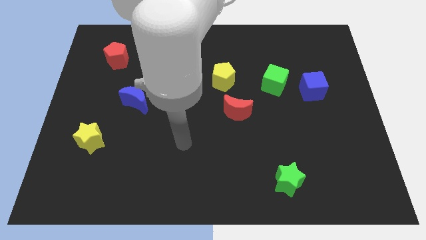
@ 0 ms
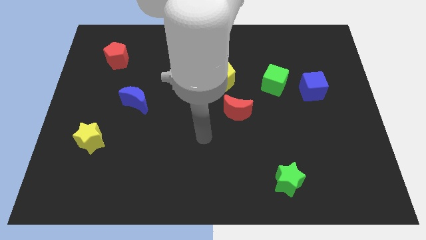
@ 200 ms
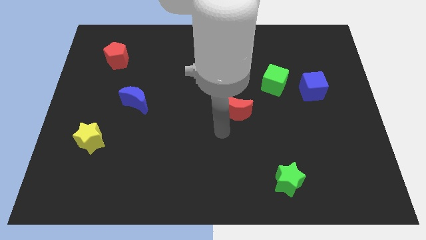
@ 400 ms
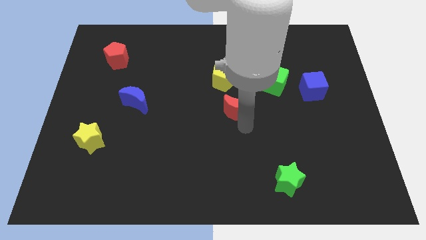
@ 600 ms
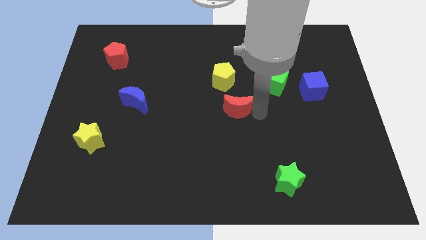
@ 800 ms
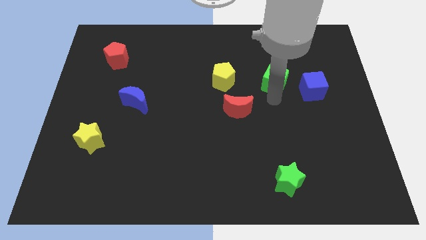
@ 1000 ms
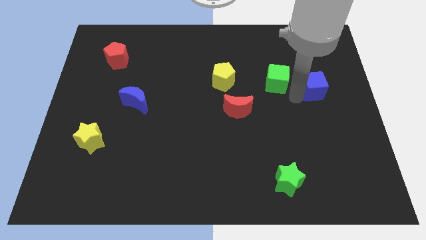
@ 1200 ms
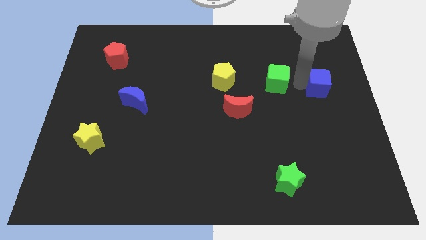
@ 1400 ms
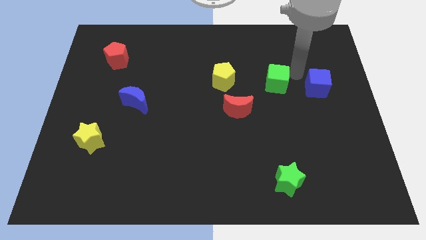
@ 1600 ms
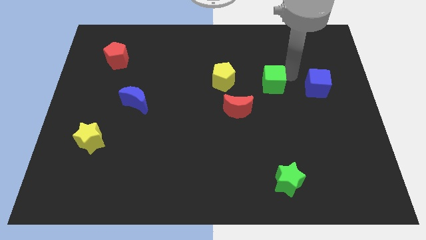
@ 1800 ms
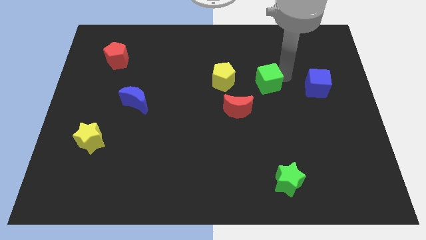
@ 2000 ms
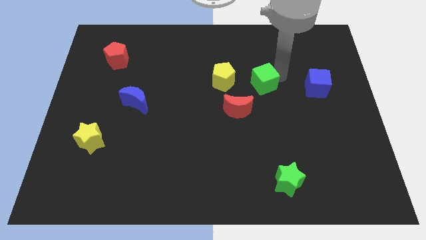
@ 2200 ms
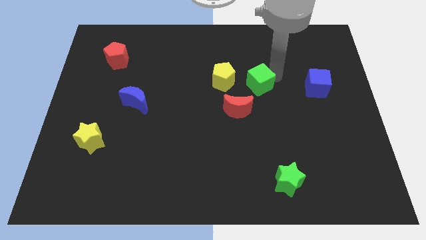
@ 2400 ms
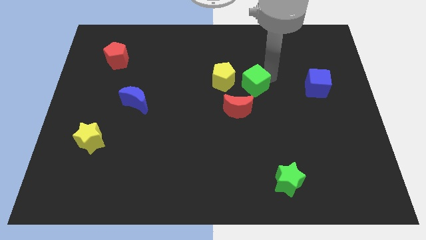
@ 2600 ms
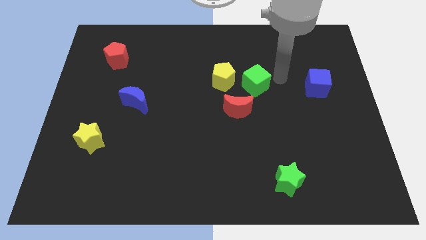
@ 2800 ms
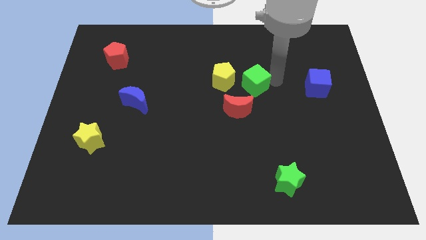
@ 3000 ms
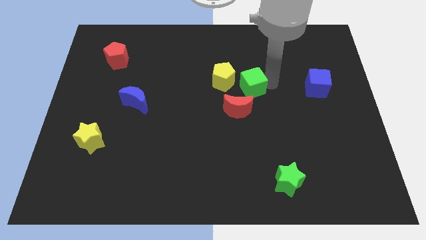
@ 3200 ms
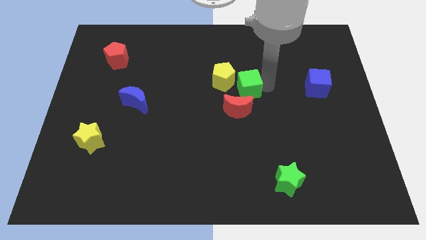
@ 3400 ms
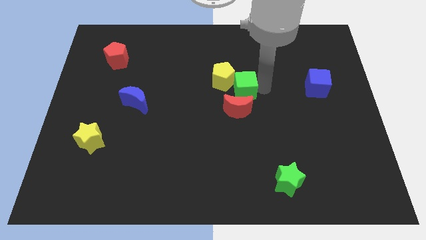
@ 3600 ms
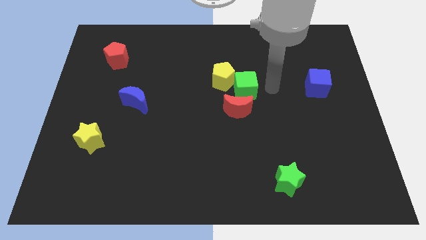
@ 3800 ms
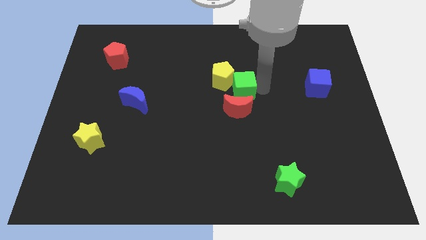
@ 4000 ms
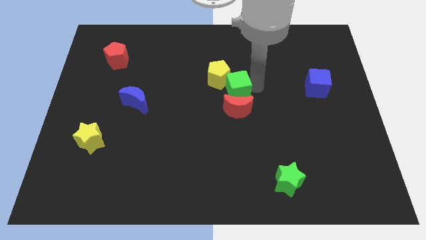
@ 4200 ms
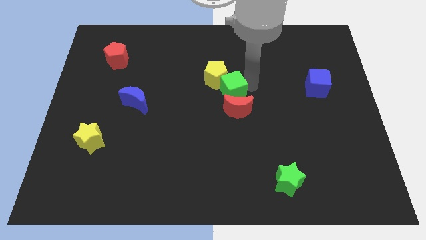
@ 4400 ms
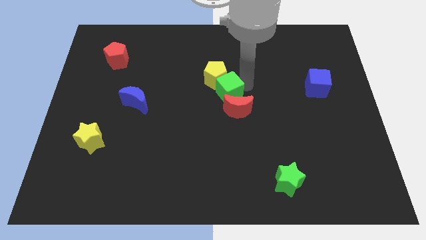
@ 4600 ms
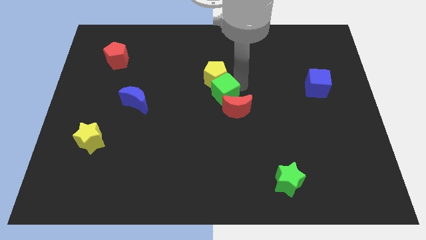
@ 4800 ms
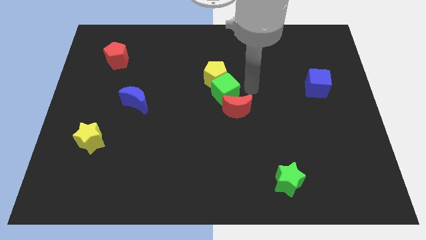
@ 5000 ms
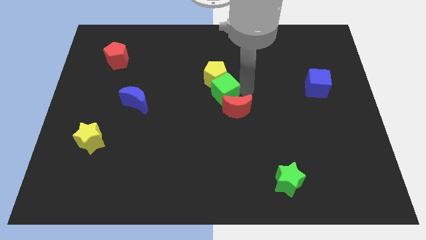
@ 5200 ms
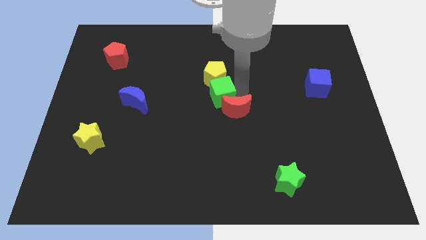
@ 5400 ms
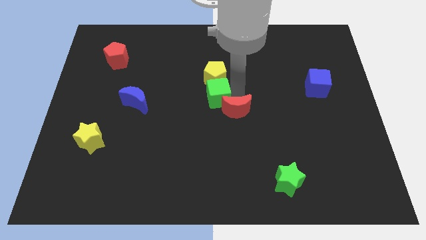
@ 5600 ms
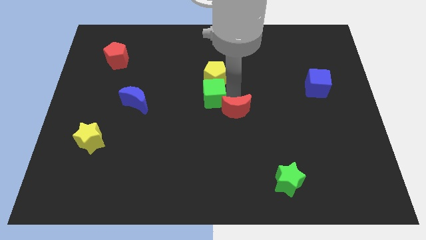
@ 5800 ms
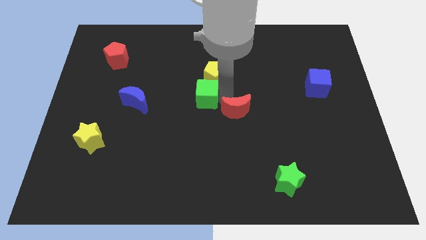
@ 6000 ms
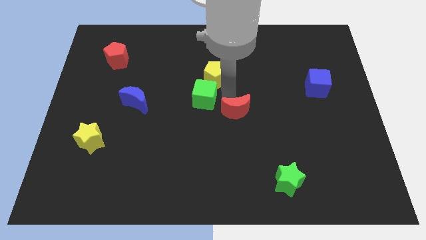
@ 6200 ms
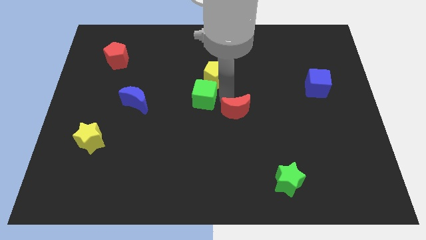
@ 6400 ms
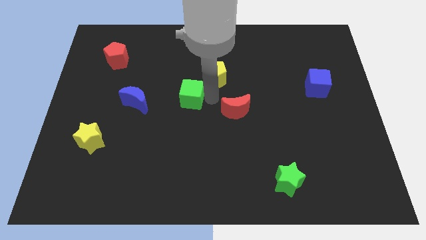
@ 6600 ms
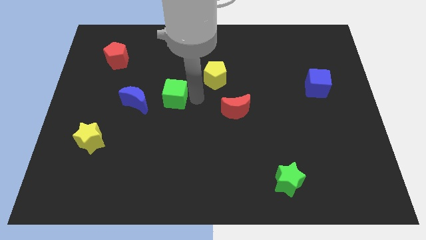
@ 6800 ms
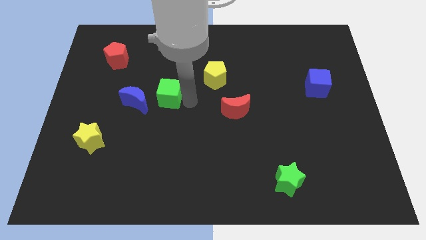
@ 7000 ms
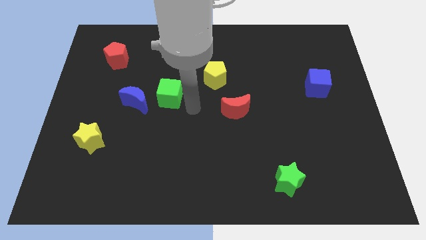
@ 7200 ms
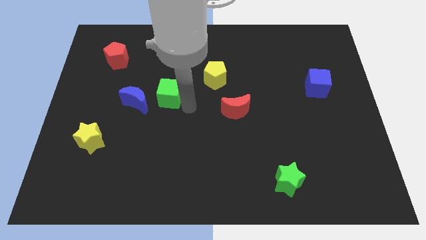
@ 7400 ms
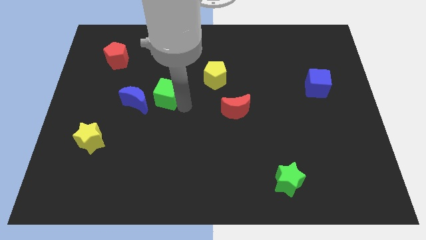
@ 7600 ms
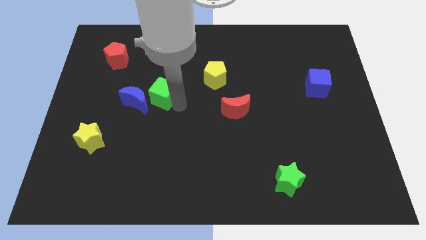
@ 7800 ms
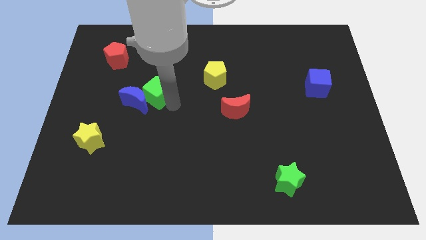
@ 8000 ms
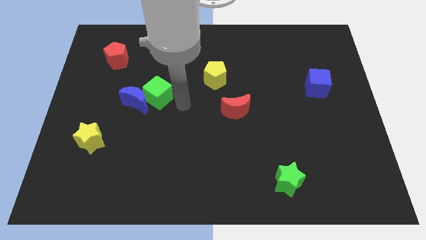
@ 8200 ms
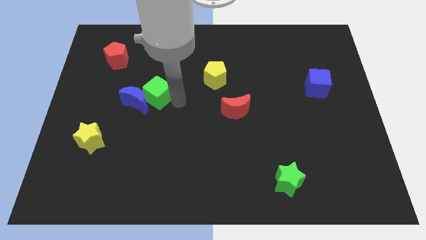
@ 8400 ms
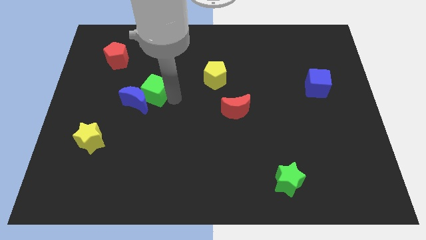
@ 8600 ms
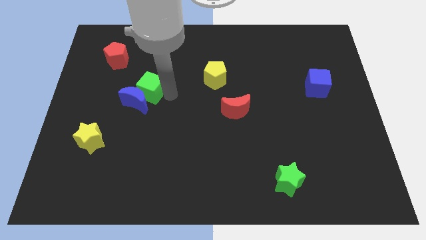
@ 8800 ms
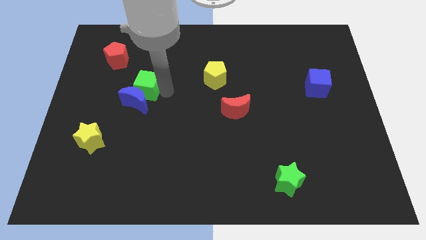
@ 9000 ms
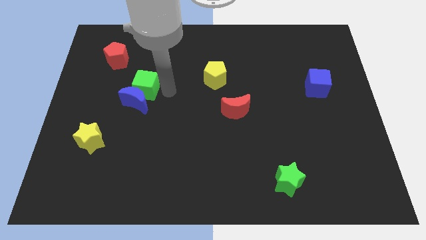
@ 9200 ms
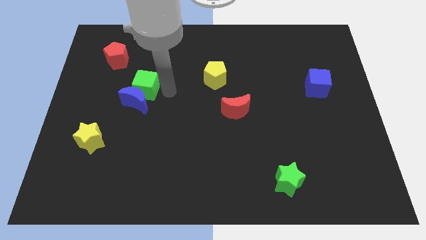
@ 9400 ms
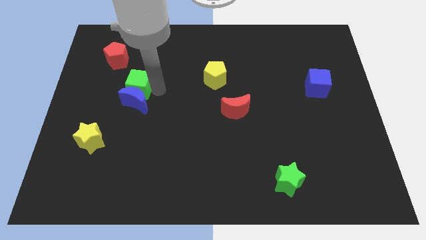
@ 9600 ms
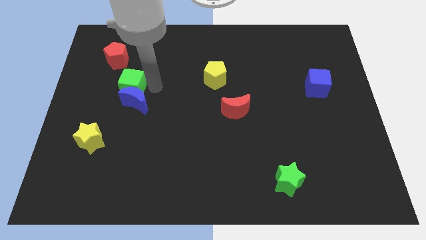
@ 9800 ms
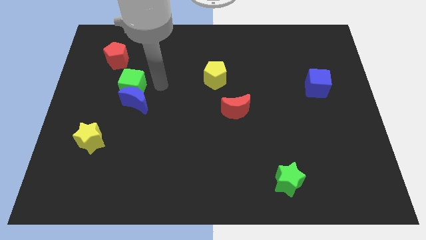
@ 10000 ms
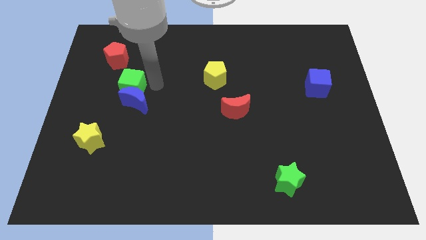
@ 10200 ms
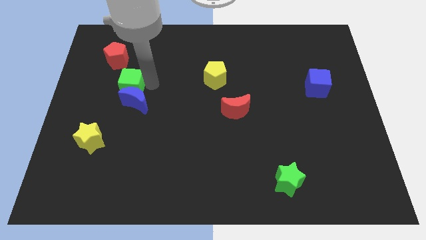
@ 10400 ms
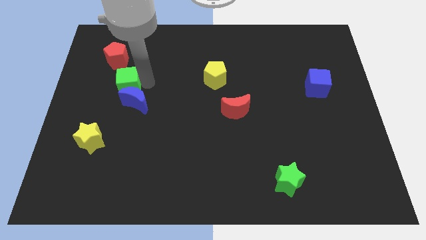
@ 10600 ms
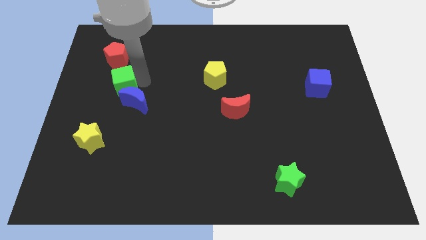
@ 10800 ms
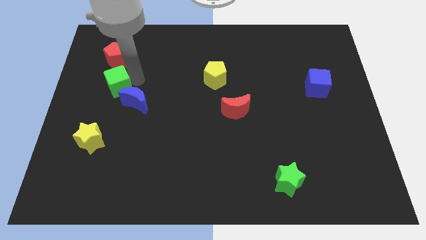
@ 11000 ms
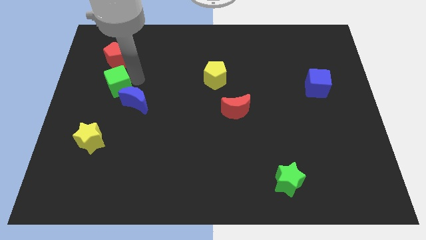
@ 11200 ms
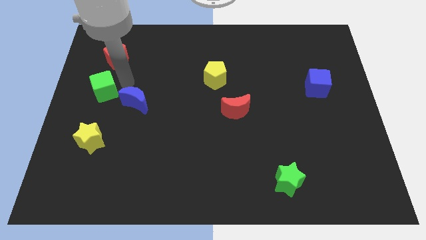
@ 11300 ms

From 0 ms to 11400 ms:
move the green cube to the center left

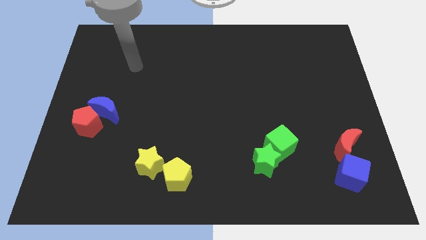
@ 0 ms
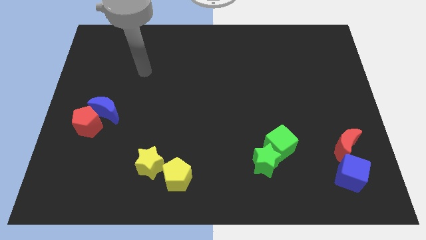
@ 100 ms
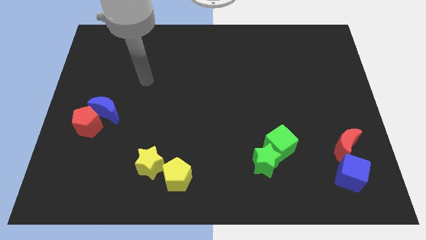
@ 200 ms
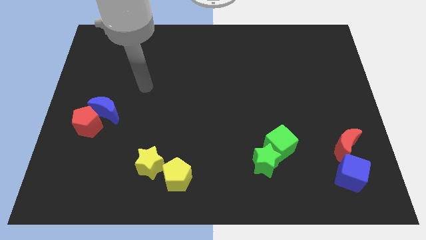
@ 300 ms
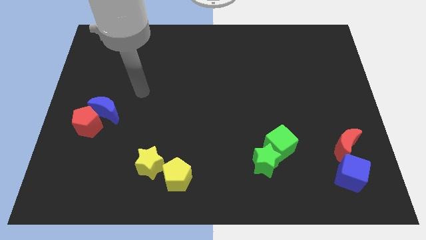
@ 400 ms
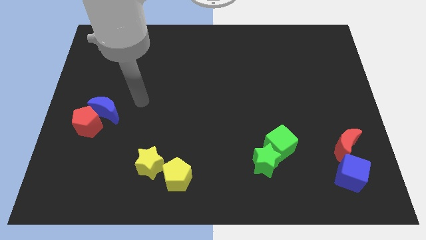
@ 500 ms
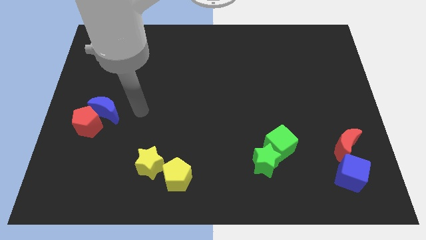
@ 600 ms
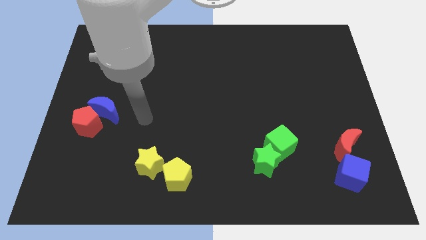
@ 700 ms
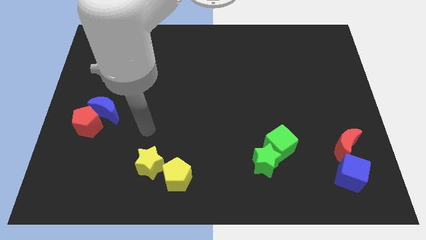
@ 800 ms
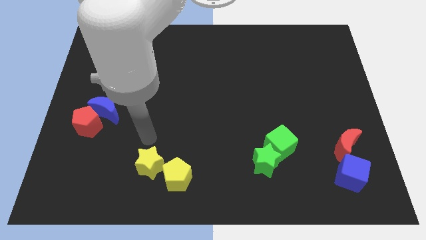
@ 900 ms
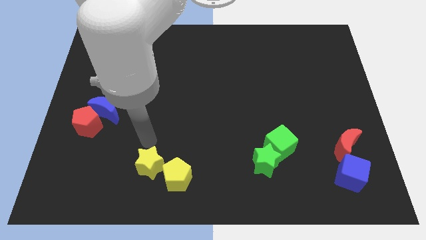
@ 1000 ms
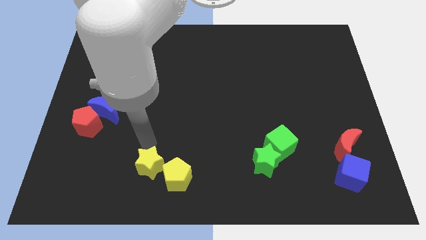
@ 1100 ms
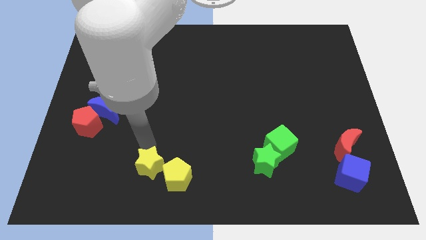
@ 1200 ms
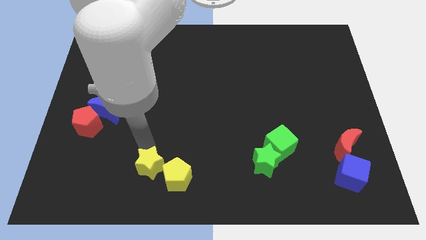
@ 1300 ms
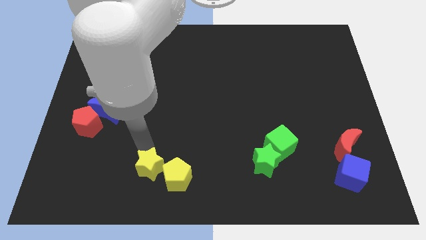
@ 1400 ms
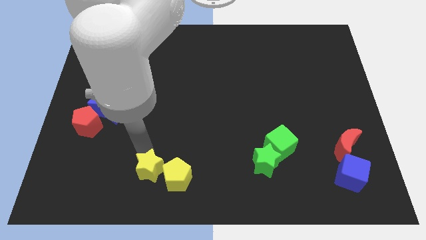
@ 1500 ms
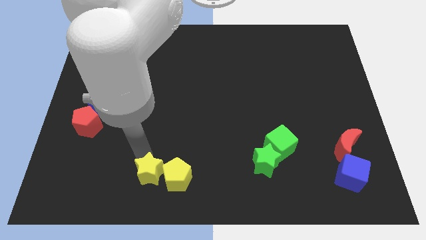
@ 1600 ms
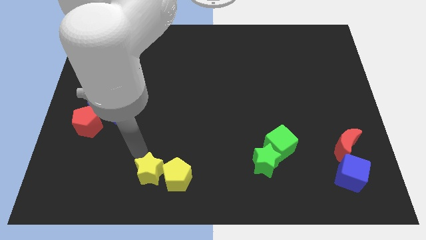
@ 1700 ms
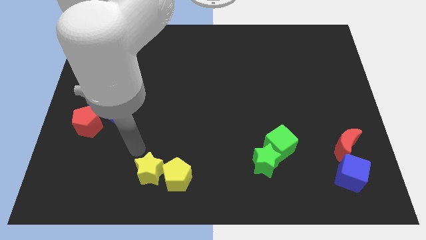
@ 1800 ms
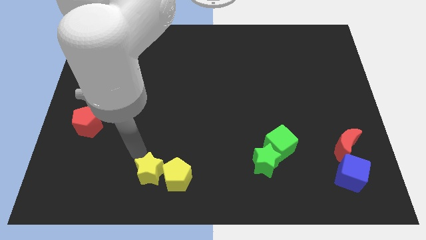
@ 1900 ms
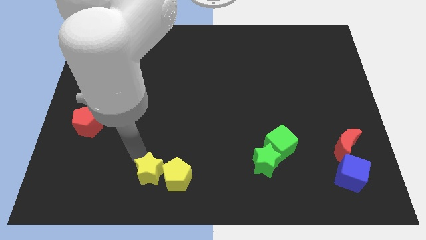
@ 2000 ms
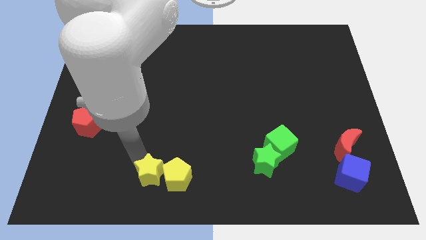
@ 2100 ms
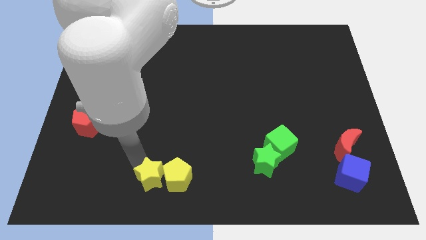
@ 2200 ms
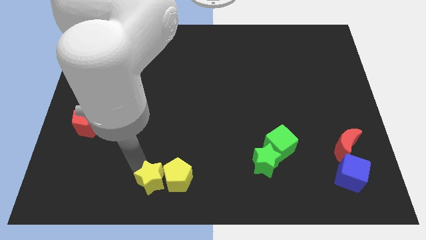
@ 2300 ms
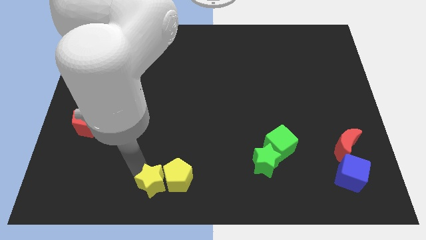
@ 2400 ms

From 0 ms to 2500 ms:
move the yellow star to the bottom
